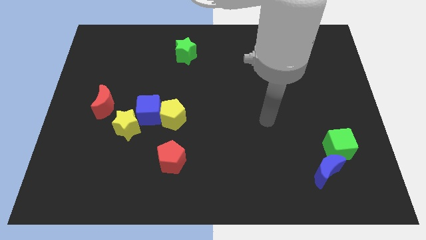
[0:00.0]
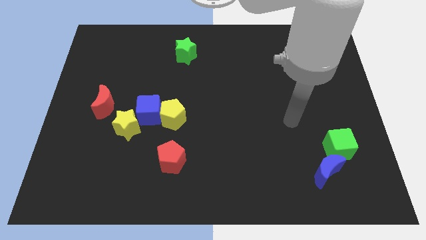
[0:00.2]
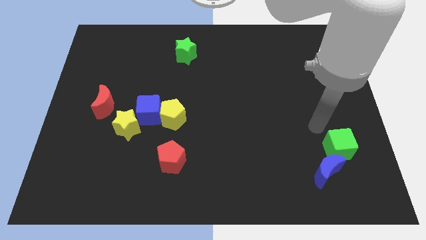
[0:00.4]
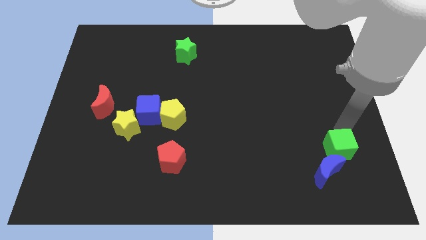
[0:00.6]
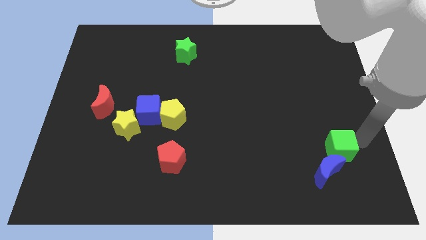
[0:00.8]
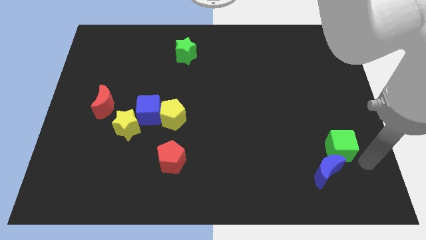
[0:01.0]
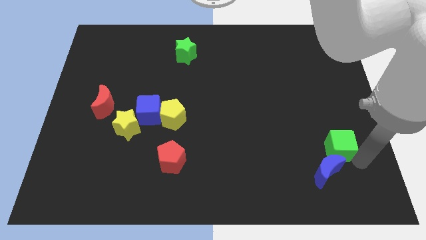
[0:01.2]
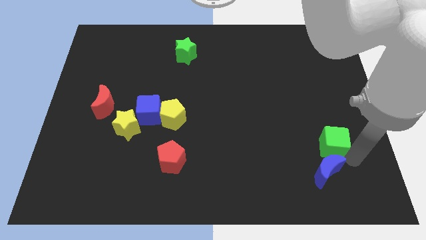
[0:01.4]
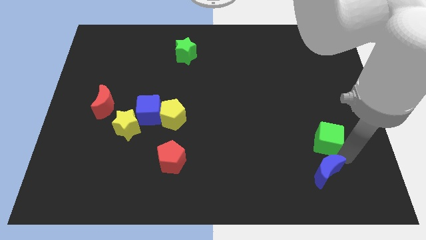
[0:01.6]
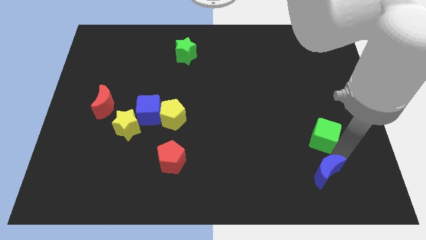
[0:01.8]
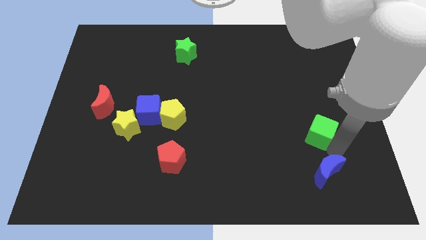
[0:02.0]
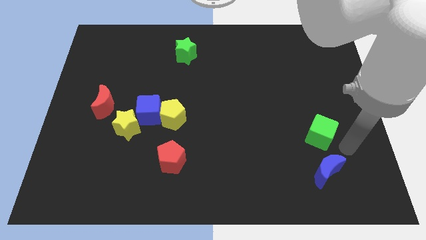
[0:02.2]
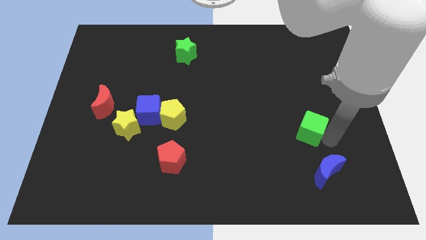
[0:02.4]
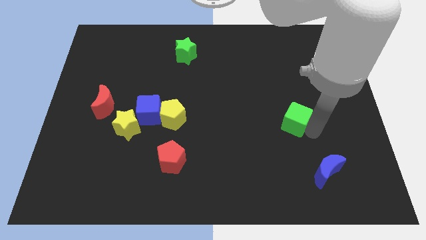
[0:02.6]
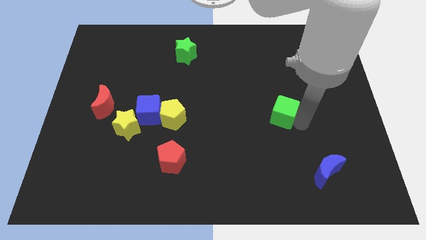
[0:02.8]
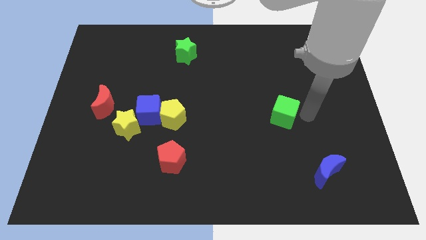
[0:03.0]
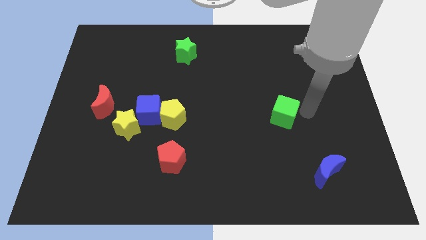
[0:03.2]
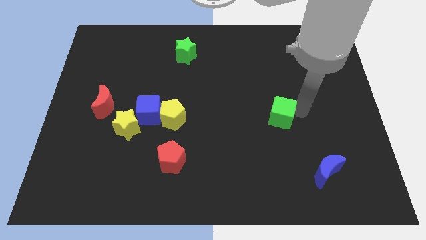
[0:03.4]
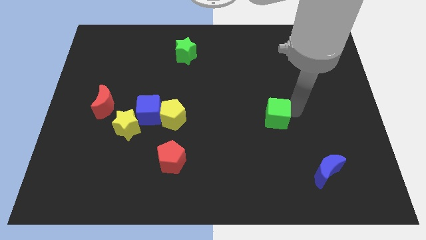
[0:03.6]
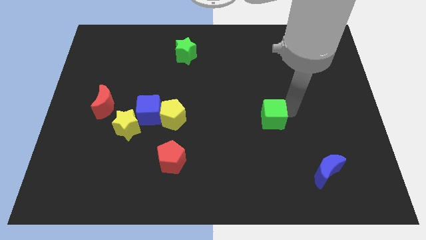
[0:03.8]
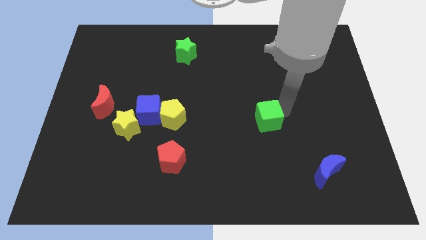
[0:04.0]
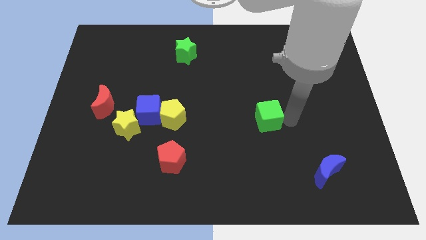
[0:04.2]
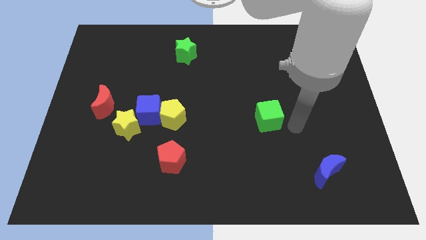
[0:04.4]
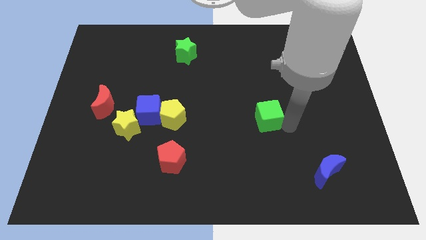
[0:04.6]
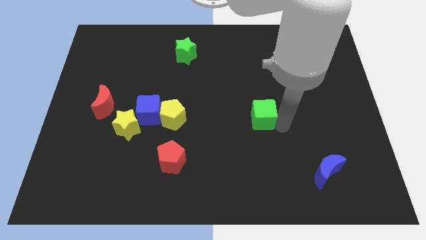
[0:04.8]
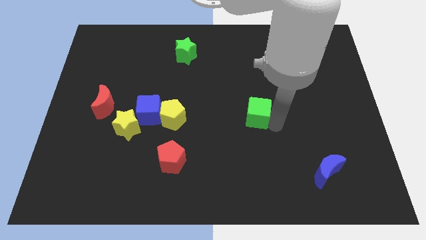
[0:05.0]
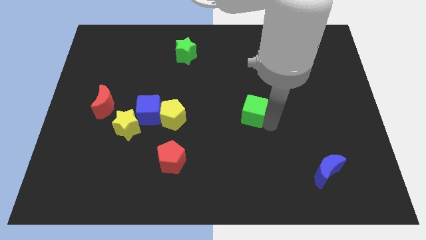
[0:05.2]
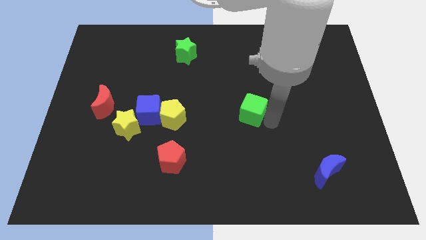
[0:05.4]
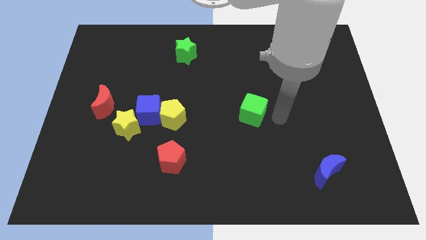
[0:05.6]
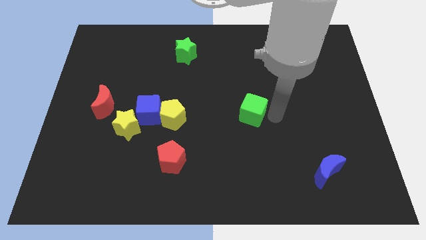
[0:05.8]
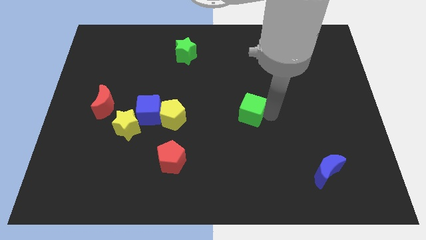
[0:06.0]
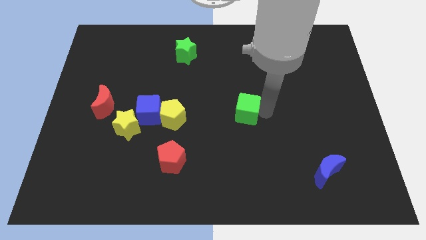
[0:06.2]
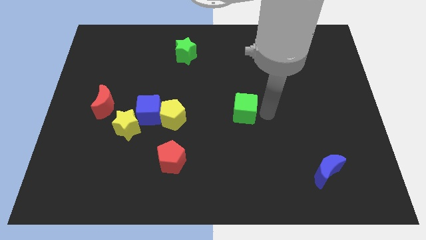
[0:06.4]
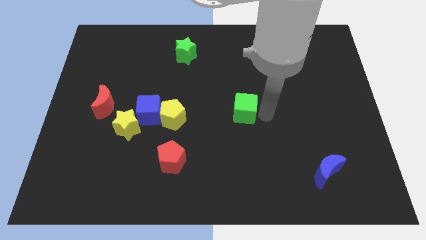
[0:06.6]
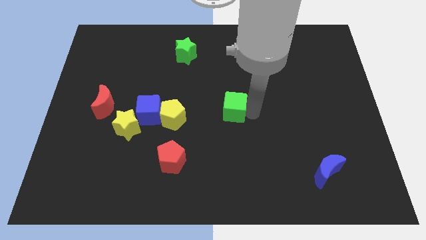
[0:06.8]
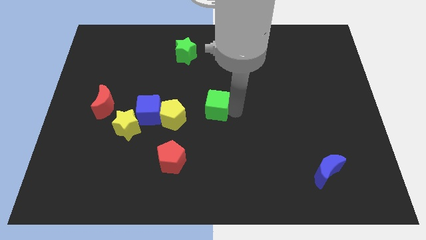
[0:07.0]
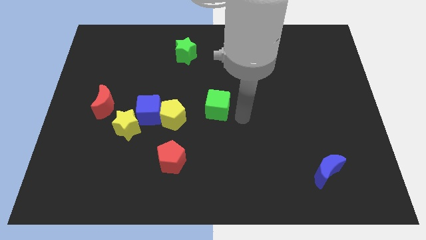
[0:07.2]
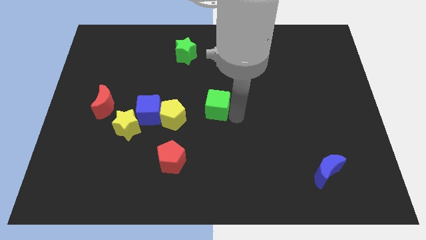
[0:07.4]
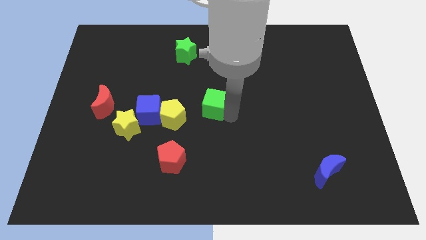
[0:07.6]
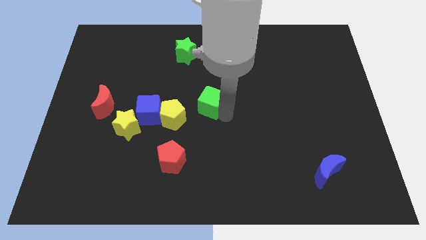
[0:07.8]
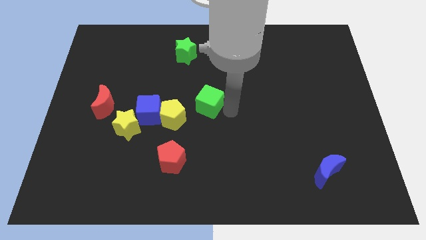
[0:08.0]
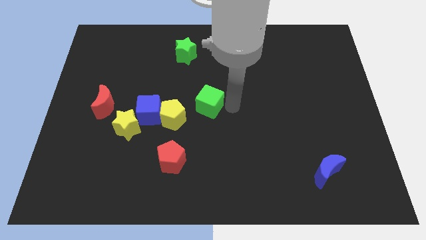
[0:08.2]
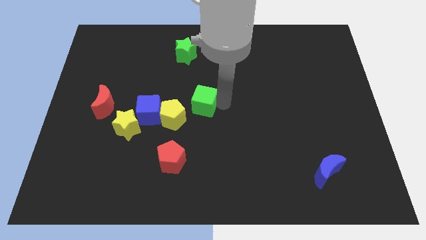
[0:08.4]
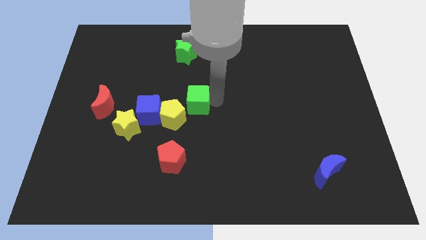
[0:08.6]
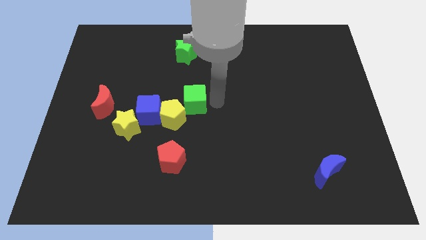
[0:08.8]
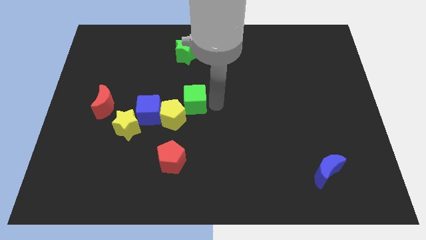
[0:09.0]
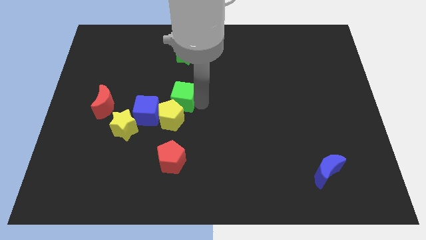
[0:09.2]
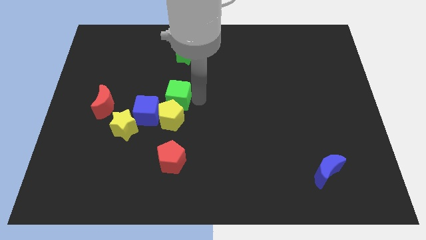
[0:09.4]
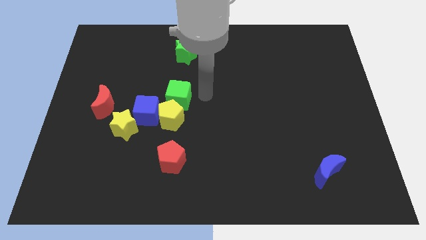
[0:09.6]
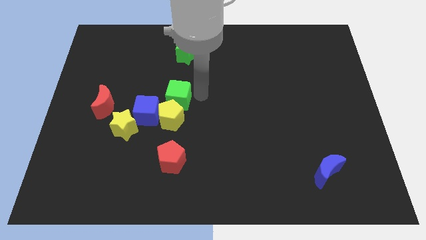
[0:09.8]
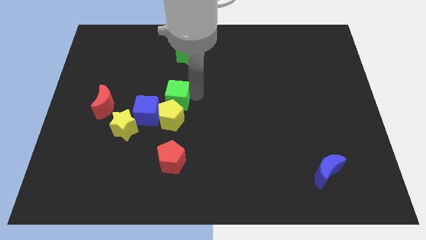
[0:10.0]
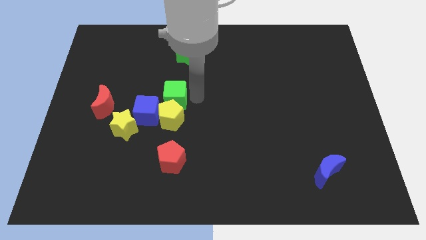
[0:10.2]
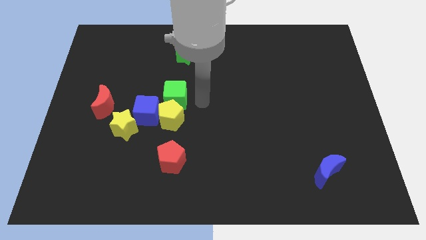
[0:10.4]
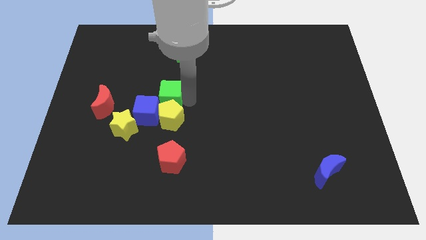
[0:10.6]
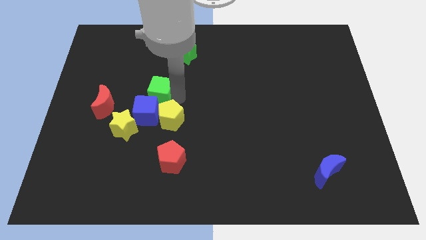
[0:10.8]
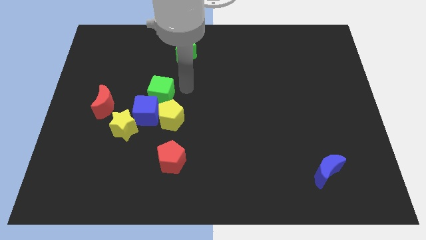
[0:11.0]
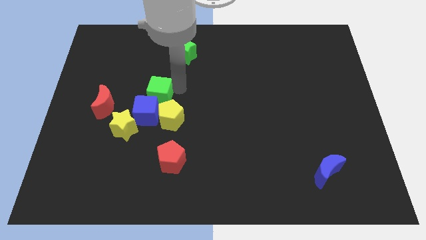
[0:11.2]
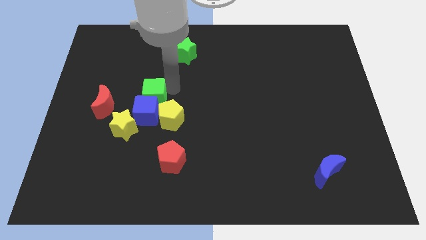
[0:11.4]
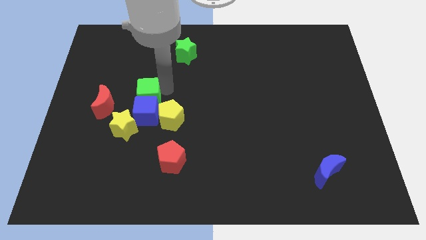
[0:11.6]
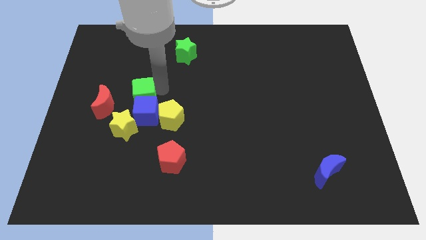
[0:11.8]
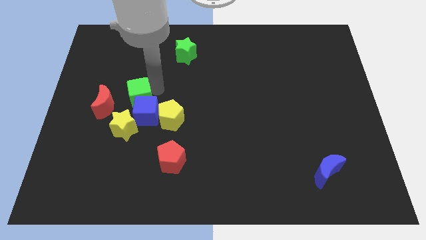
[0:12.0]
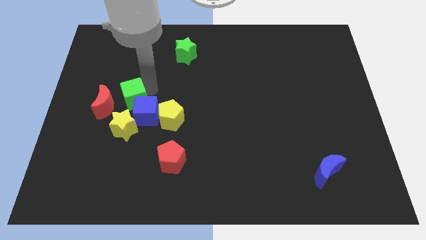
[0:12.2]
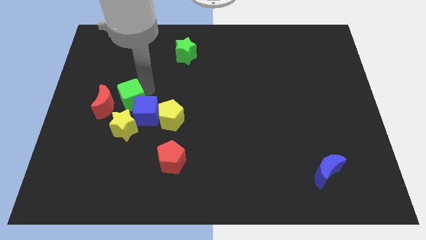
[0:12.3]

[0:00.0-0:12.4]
put the green cube to the red moon

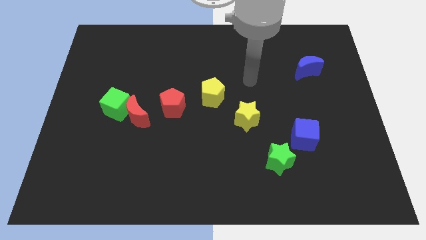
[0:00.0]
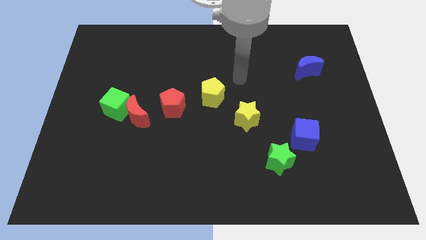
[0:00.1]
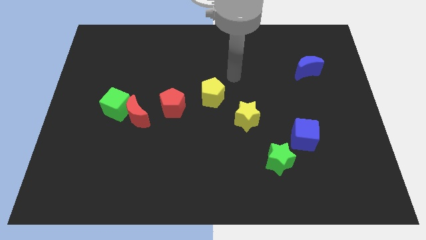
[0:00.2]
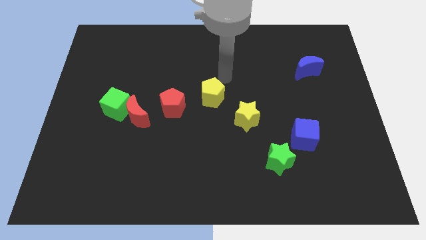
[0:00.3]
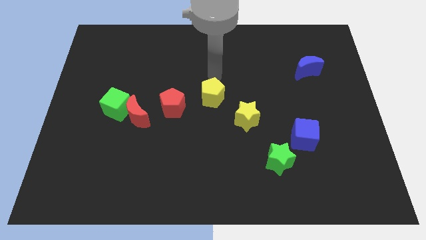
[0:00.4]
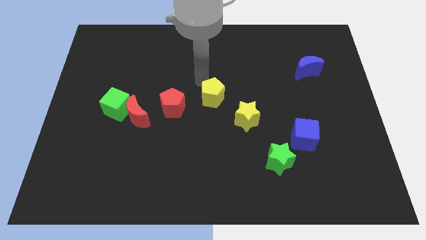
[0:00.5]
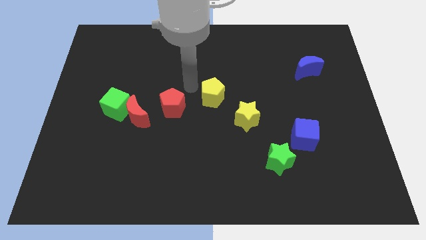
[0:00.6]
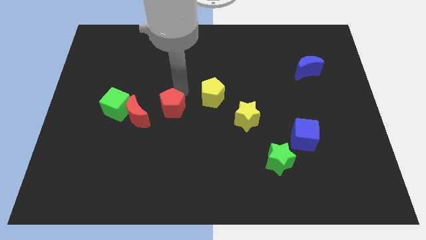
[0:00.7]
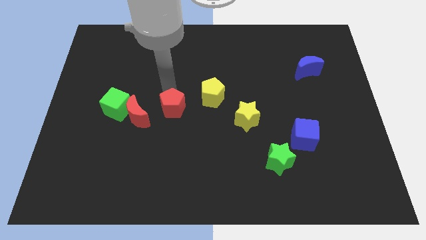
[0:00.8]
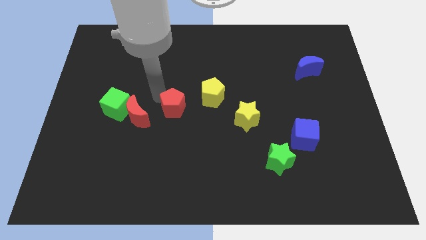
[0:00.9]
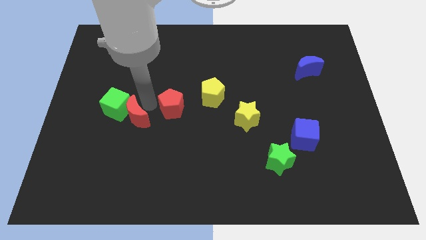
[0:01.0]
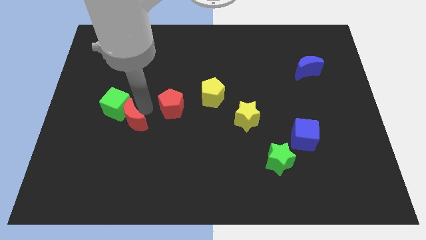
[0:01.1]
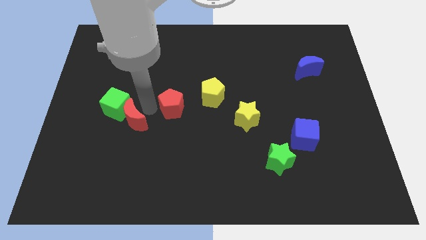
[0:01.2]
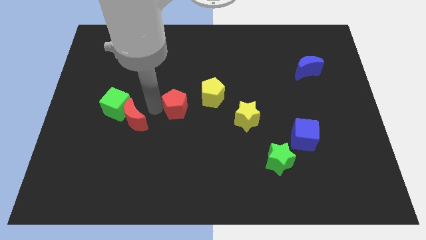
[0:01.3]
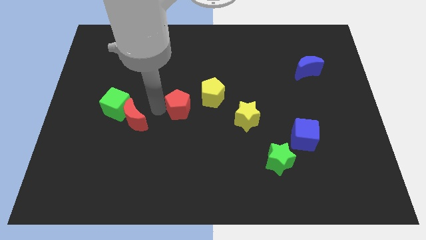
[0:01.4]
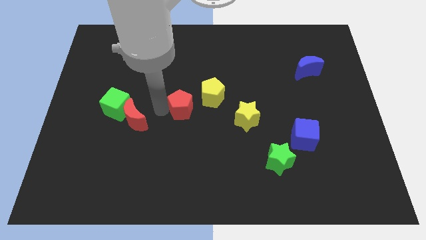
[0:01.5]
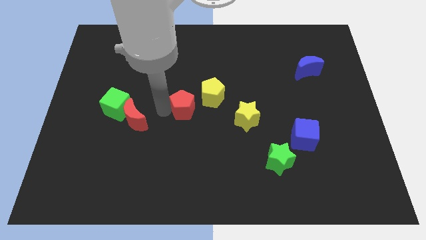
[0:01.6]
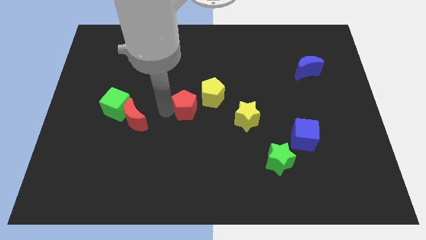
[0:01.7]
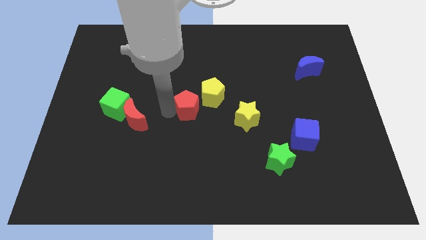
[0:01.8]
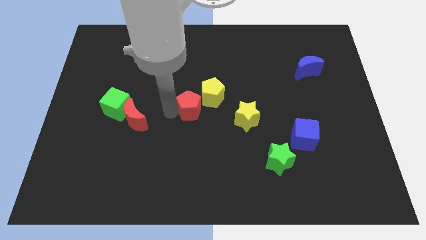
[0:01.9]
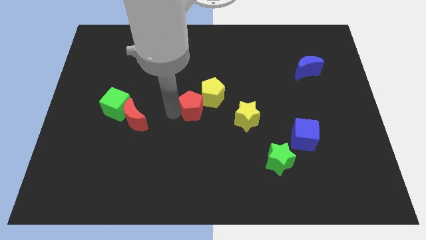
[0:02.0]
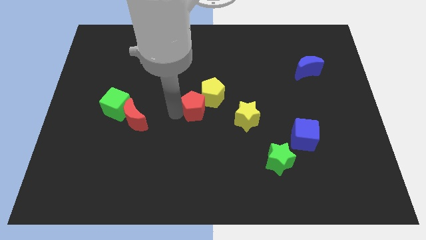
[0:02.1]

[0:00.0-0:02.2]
slide the red pentagon next to the yellow pentagon

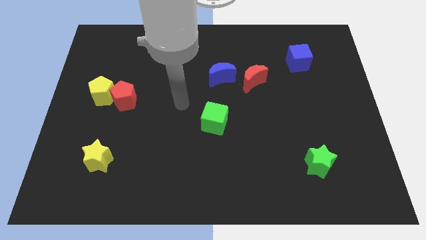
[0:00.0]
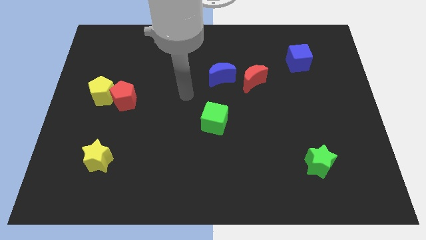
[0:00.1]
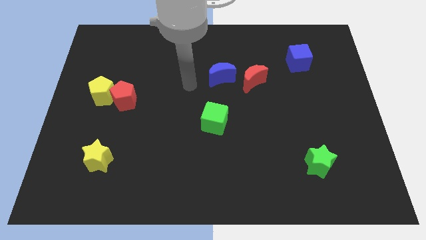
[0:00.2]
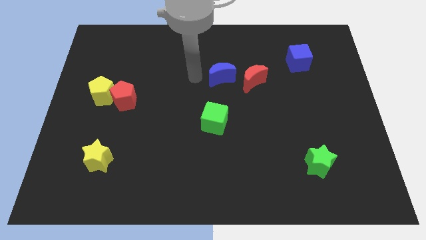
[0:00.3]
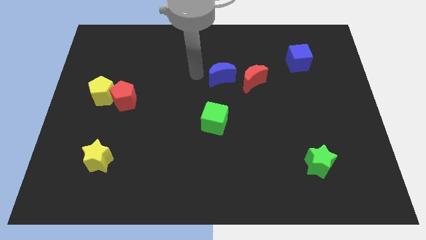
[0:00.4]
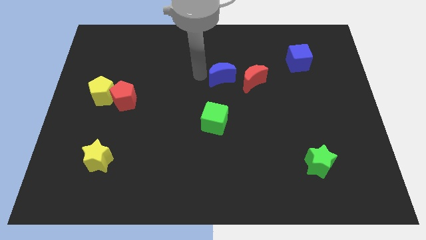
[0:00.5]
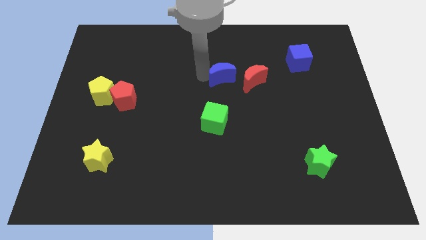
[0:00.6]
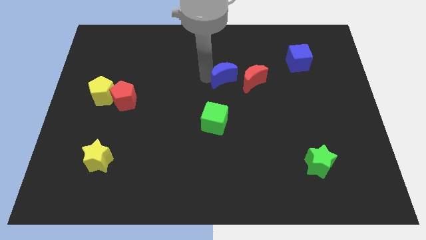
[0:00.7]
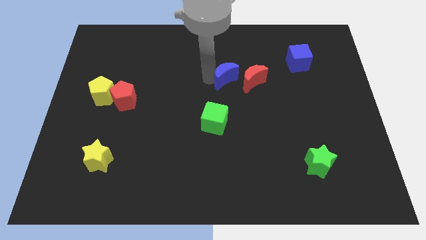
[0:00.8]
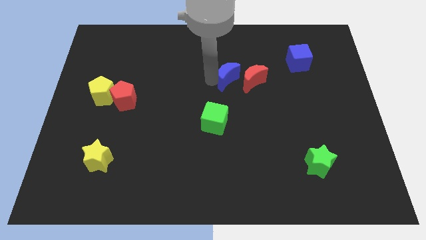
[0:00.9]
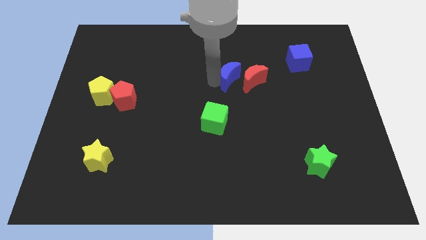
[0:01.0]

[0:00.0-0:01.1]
put the blue moon close to the red moon
